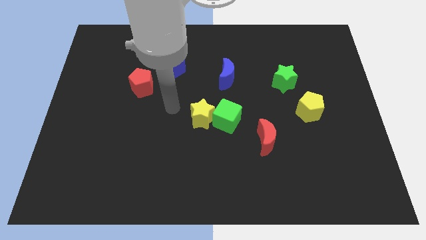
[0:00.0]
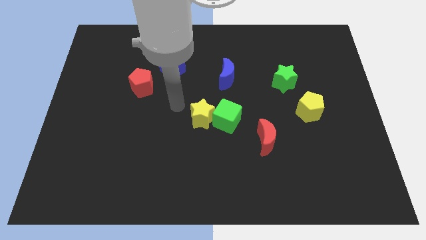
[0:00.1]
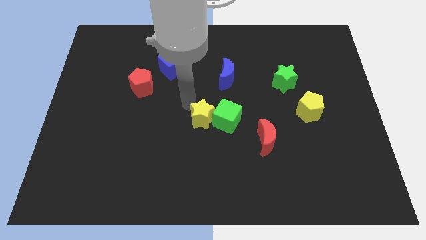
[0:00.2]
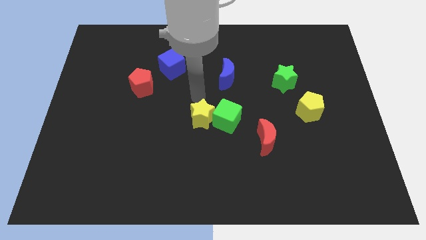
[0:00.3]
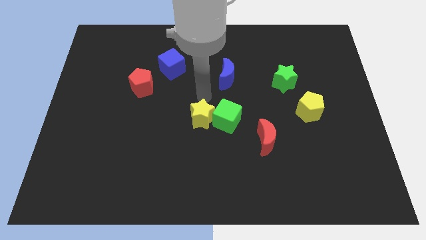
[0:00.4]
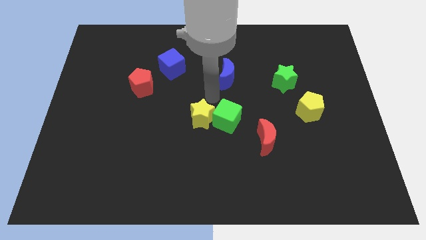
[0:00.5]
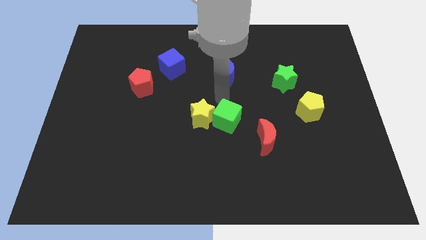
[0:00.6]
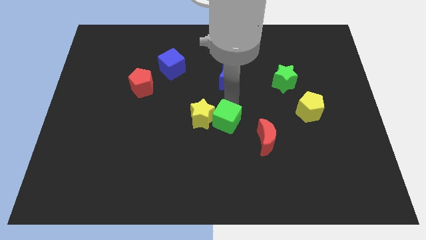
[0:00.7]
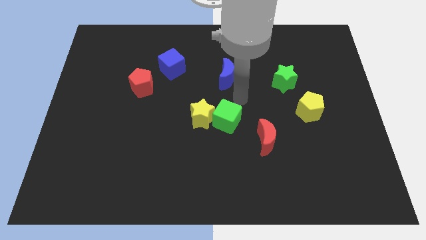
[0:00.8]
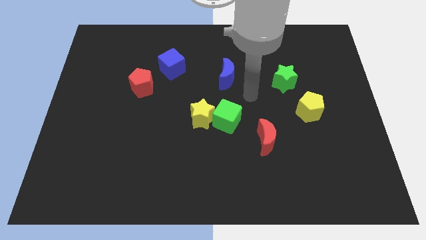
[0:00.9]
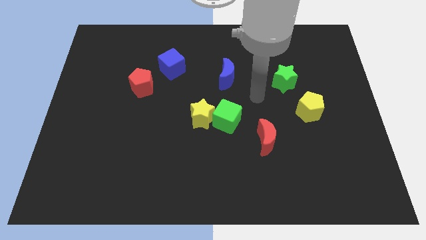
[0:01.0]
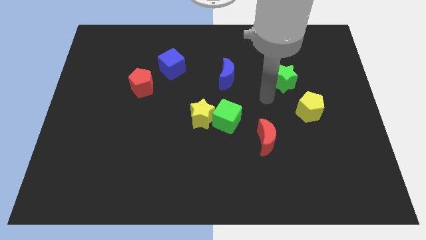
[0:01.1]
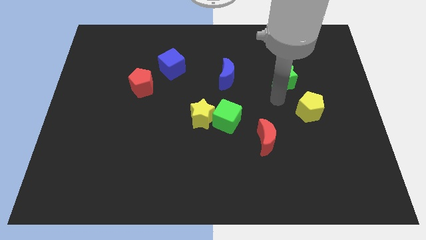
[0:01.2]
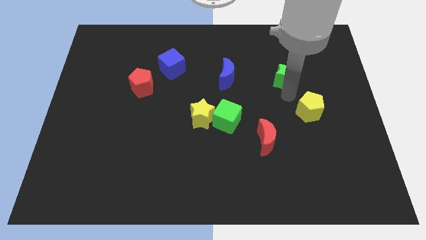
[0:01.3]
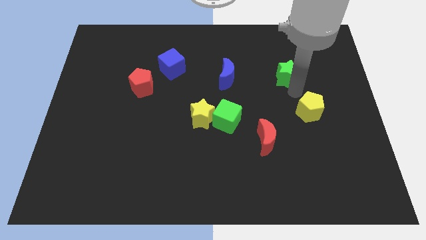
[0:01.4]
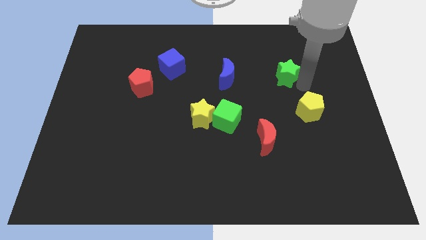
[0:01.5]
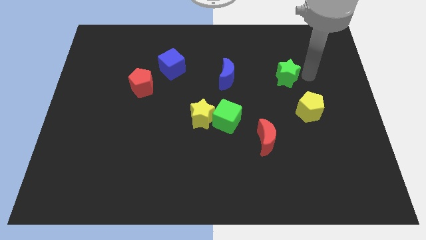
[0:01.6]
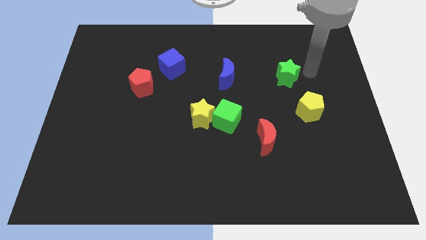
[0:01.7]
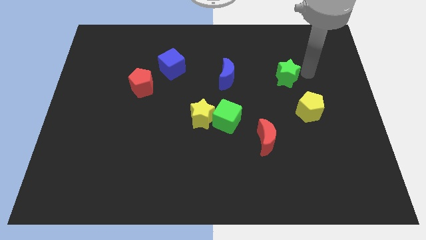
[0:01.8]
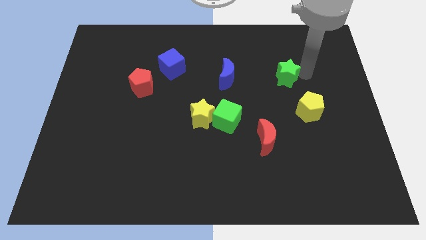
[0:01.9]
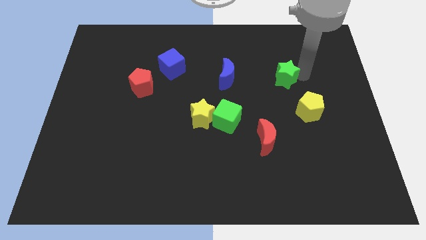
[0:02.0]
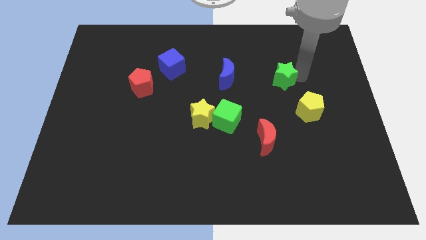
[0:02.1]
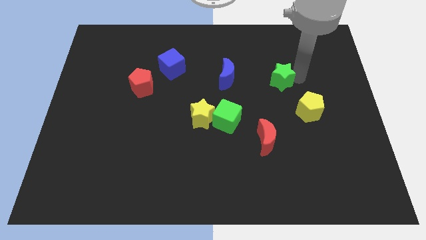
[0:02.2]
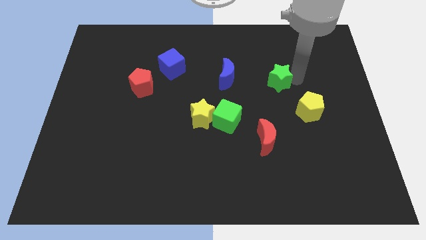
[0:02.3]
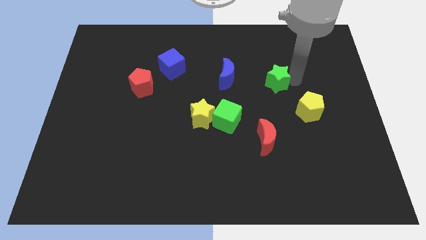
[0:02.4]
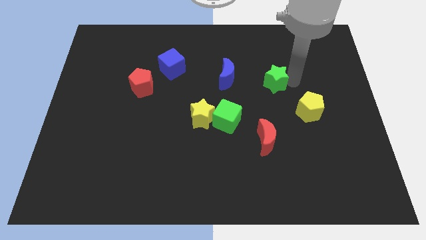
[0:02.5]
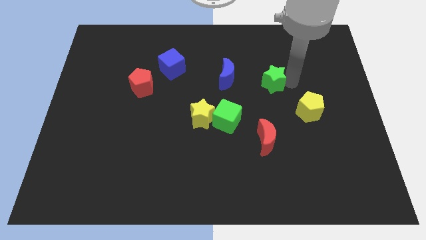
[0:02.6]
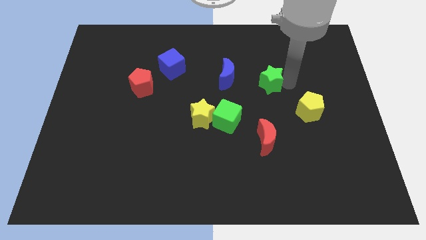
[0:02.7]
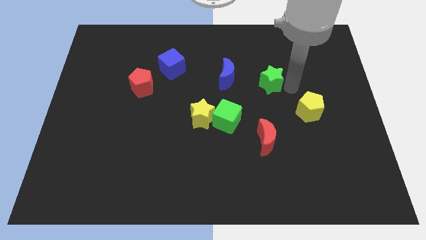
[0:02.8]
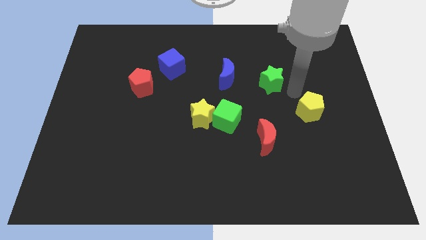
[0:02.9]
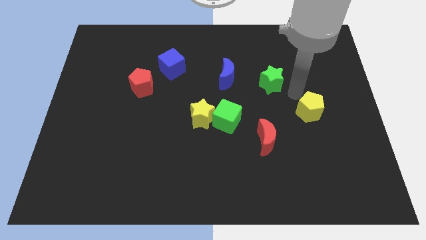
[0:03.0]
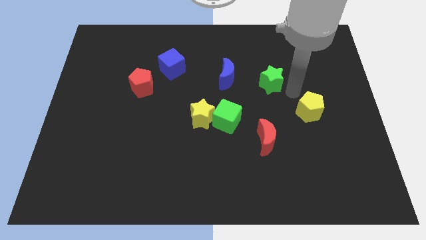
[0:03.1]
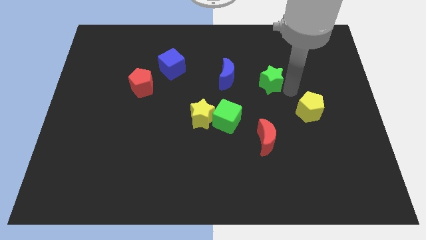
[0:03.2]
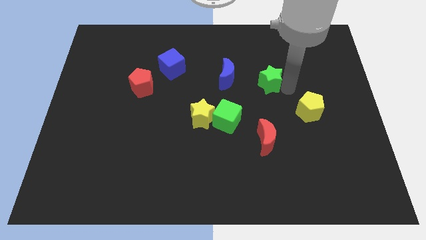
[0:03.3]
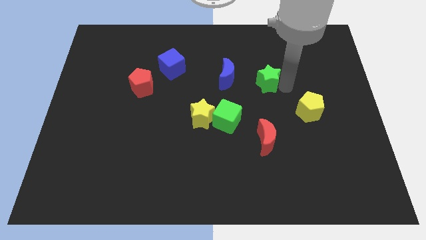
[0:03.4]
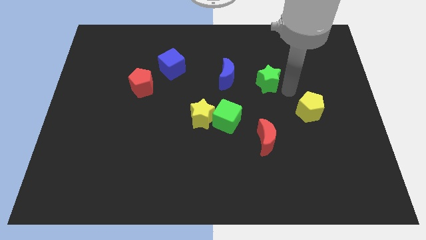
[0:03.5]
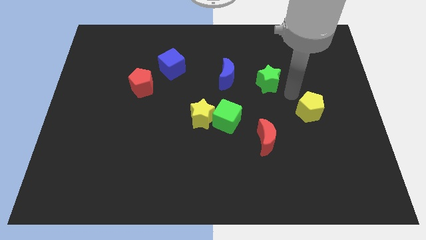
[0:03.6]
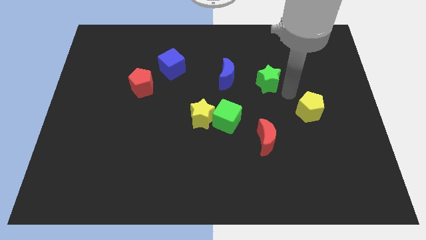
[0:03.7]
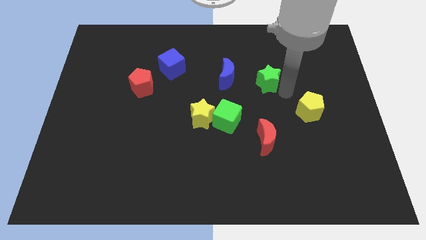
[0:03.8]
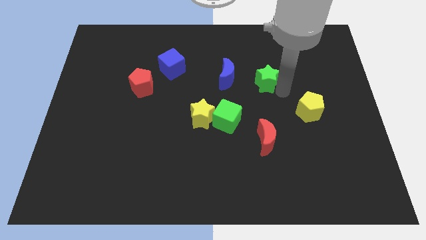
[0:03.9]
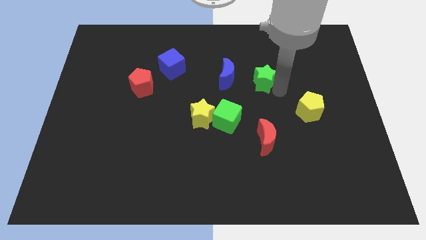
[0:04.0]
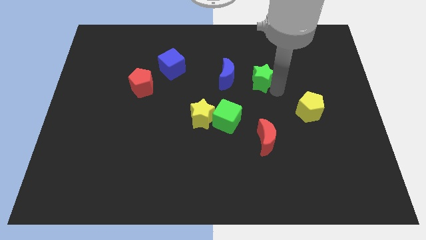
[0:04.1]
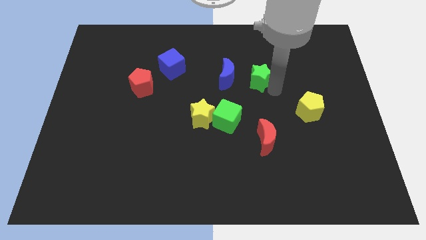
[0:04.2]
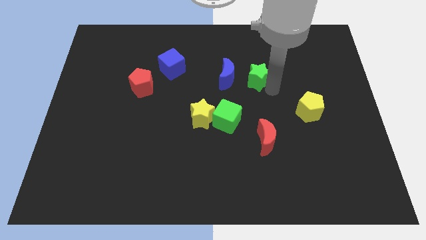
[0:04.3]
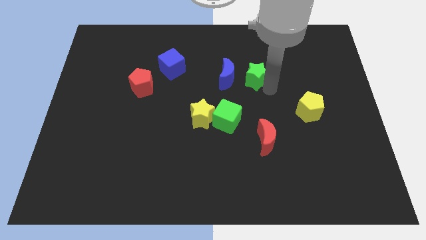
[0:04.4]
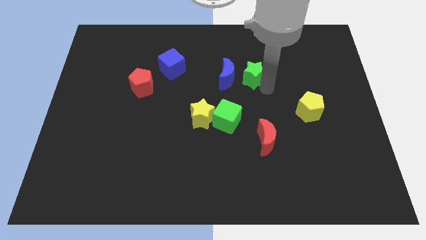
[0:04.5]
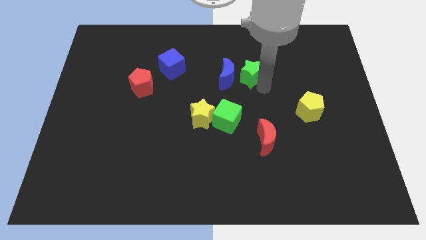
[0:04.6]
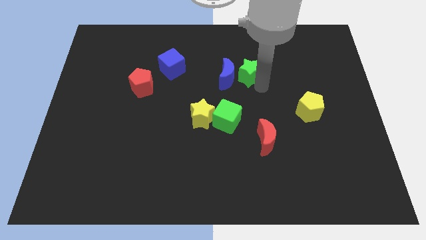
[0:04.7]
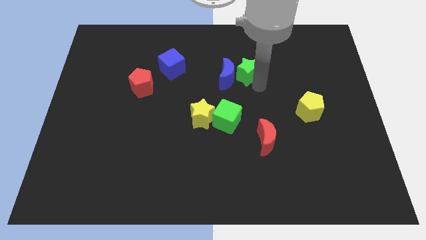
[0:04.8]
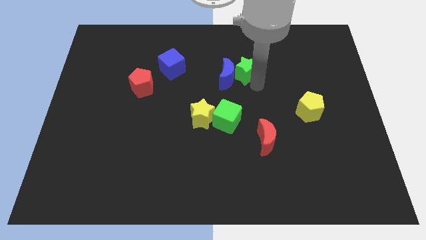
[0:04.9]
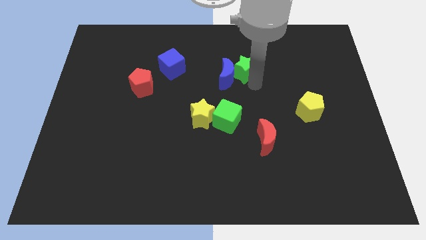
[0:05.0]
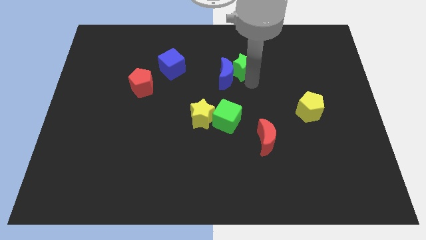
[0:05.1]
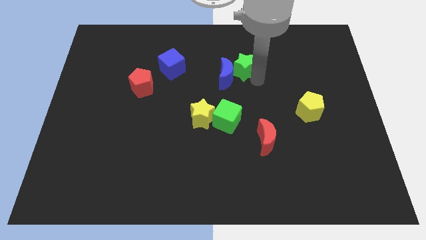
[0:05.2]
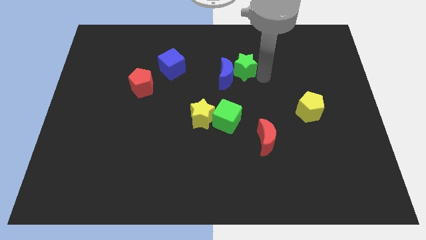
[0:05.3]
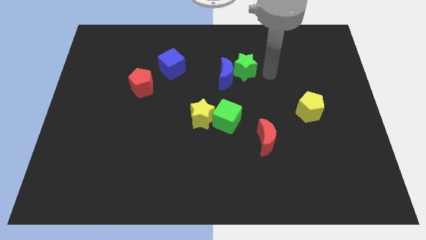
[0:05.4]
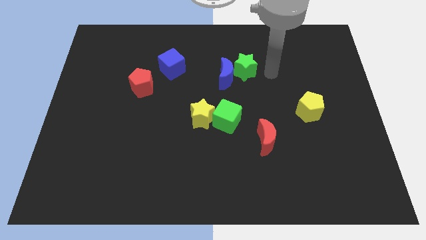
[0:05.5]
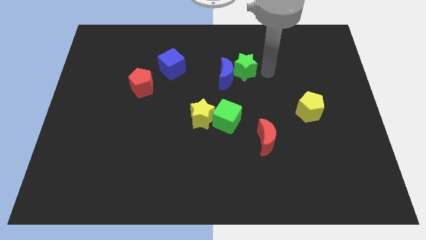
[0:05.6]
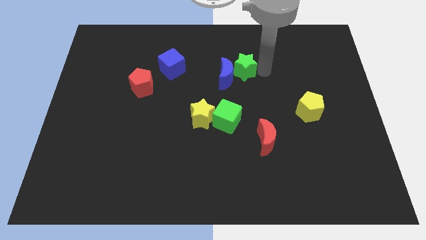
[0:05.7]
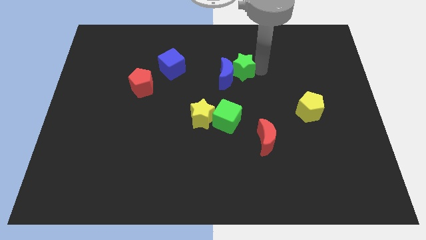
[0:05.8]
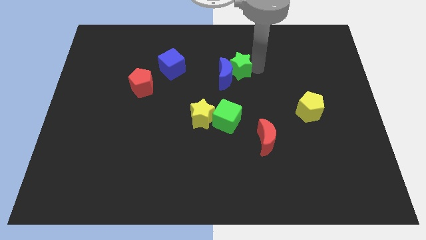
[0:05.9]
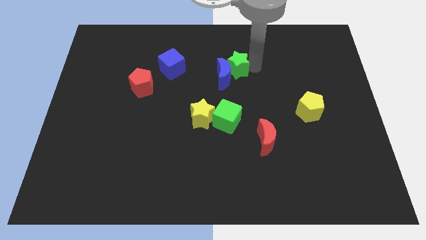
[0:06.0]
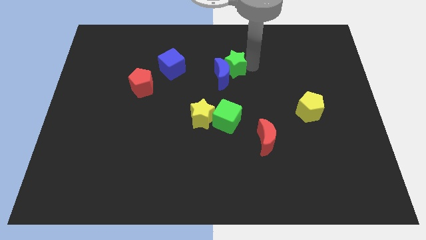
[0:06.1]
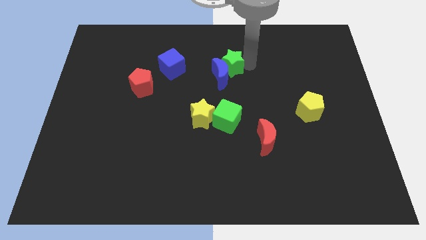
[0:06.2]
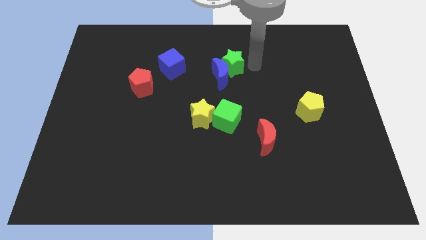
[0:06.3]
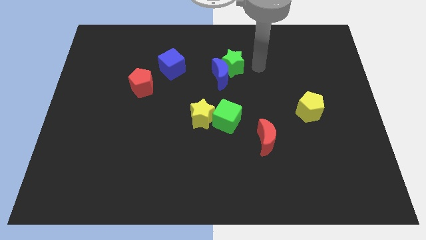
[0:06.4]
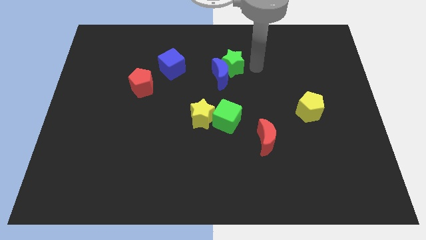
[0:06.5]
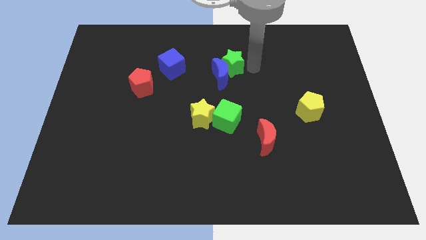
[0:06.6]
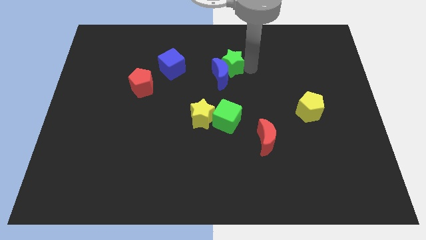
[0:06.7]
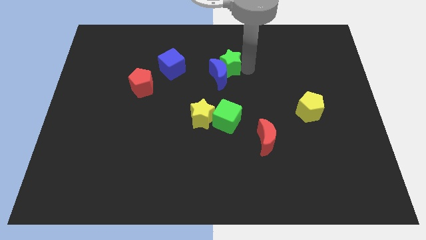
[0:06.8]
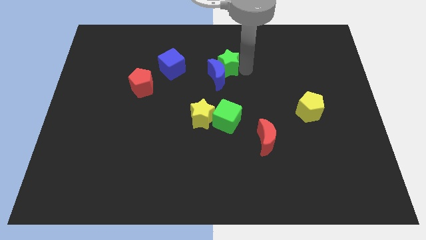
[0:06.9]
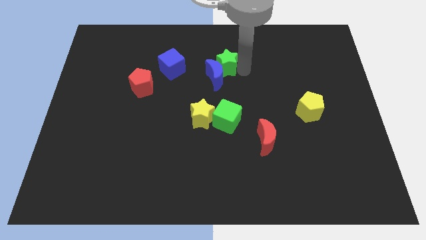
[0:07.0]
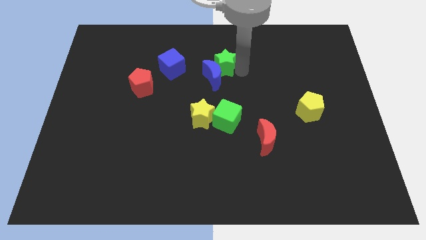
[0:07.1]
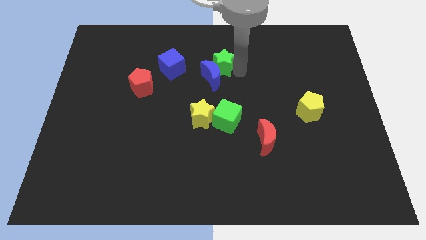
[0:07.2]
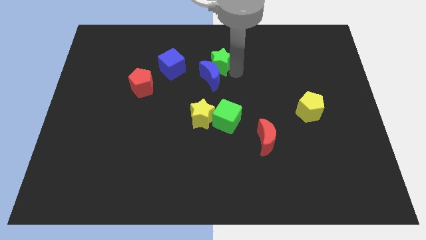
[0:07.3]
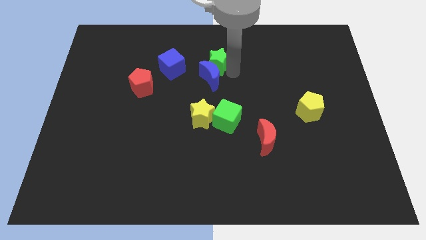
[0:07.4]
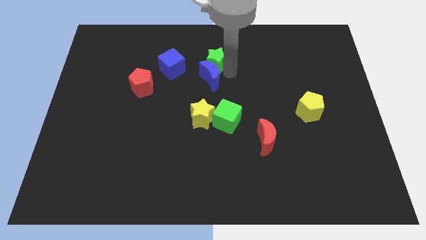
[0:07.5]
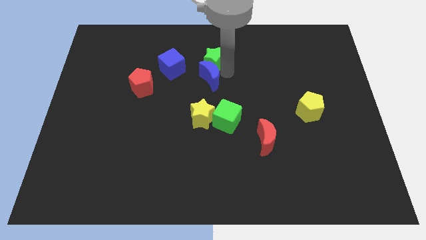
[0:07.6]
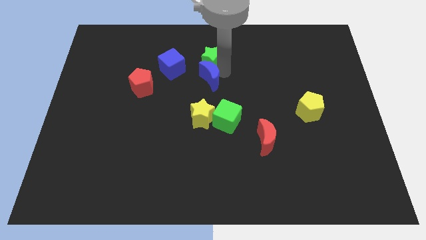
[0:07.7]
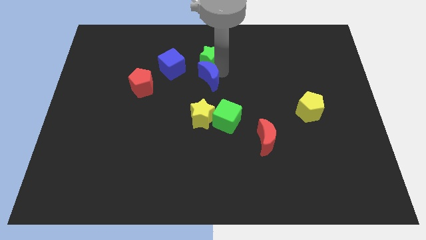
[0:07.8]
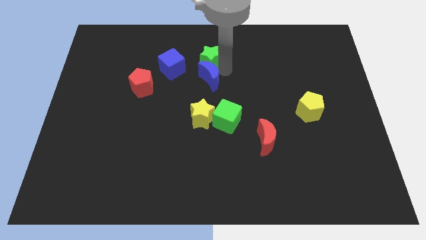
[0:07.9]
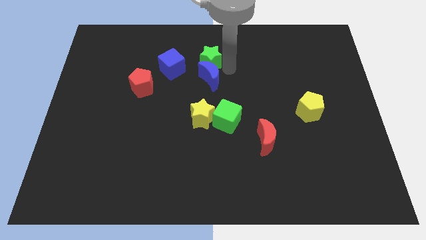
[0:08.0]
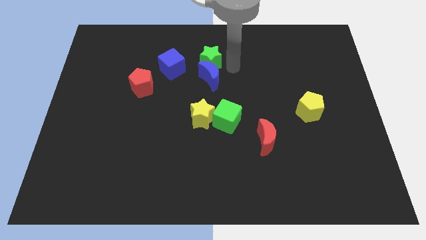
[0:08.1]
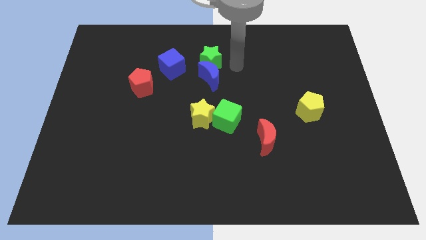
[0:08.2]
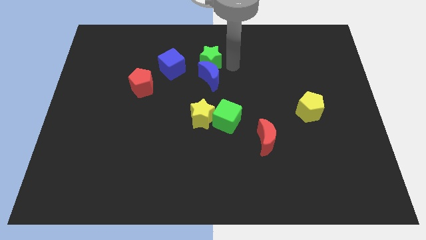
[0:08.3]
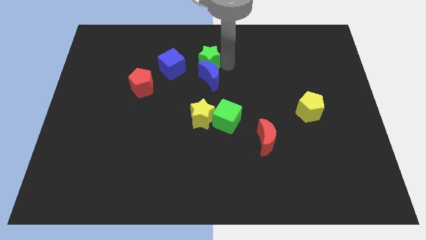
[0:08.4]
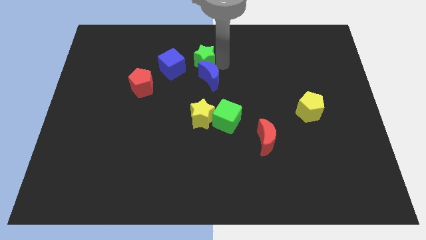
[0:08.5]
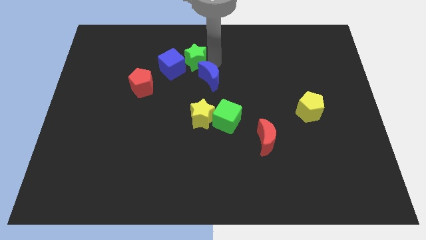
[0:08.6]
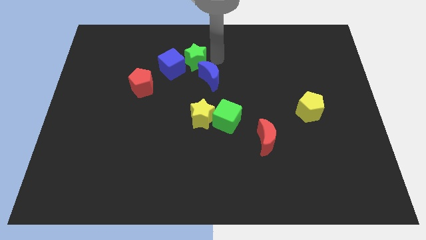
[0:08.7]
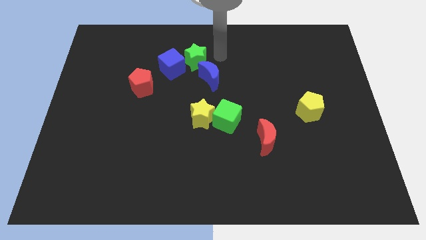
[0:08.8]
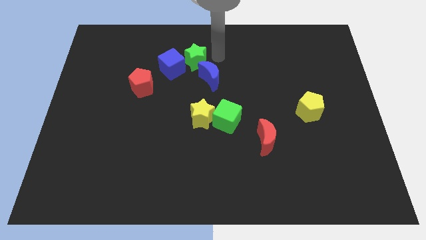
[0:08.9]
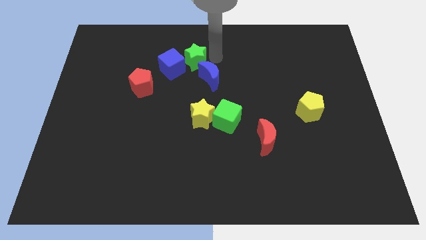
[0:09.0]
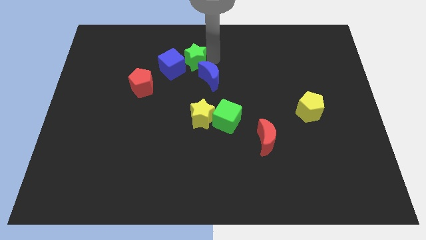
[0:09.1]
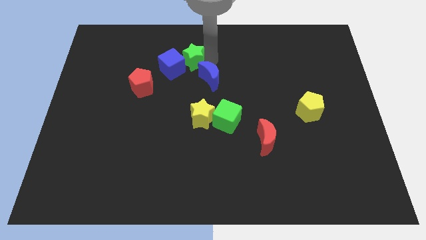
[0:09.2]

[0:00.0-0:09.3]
push the green star close to the blue cube
